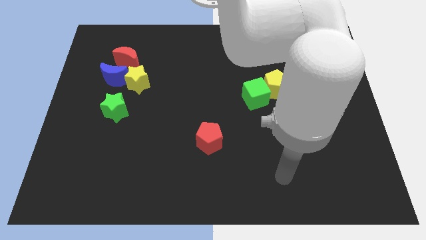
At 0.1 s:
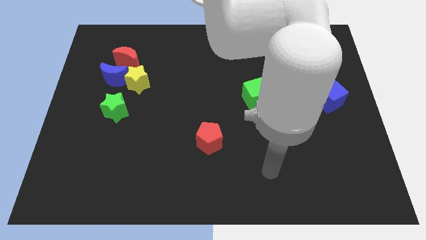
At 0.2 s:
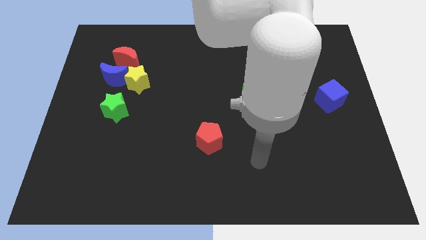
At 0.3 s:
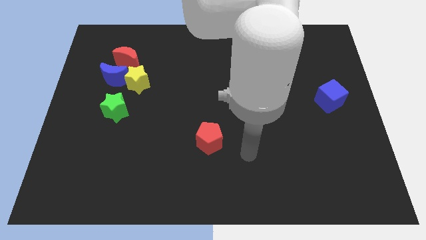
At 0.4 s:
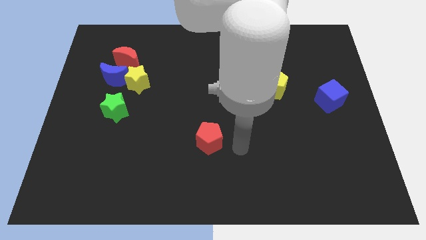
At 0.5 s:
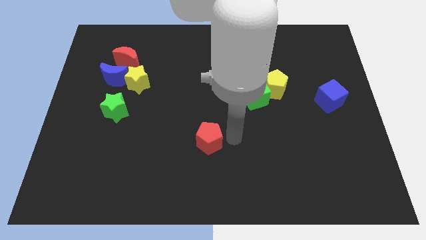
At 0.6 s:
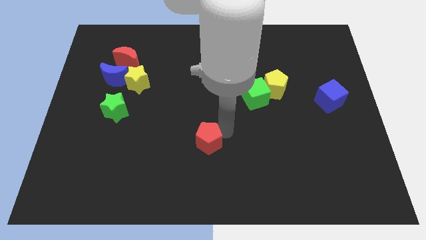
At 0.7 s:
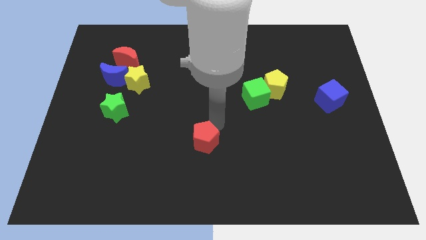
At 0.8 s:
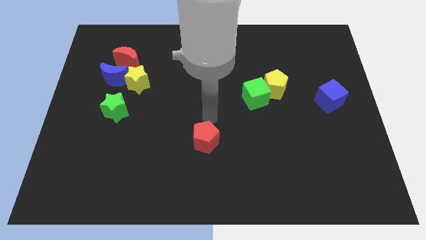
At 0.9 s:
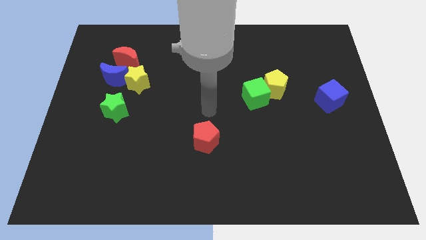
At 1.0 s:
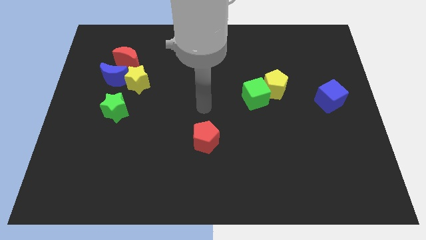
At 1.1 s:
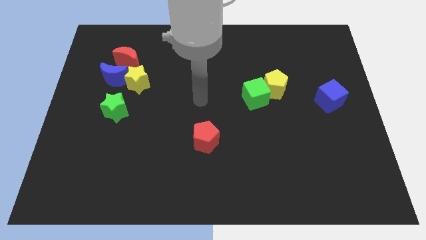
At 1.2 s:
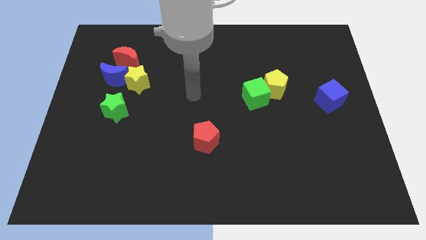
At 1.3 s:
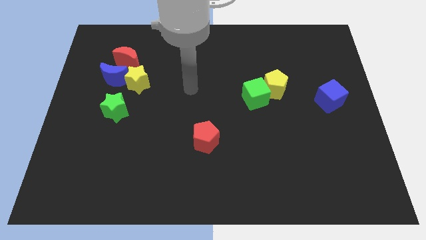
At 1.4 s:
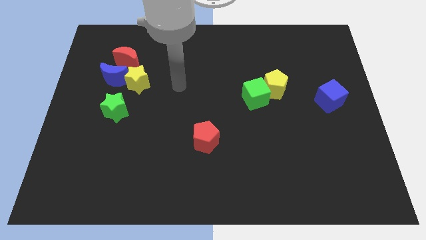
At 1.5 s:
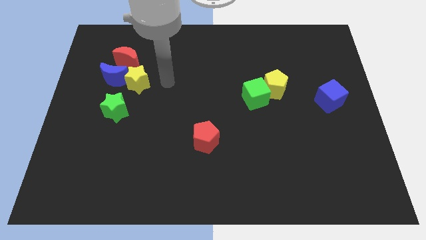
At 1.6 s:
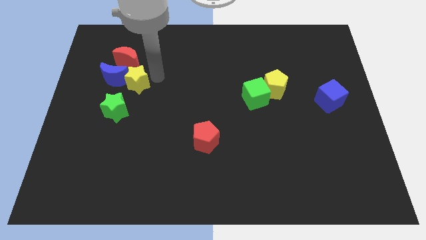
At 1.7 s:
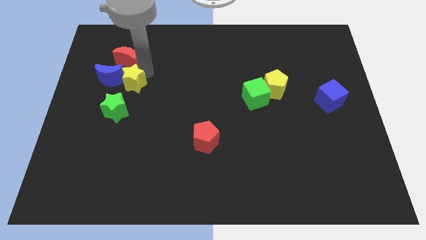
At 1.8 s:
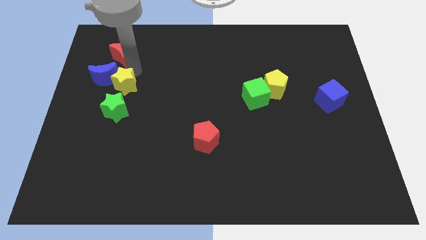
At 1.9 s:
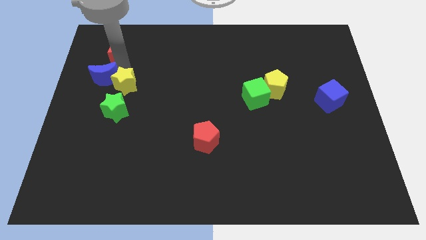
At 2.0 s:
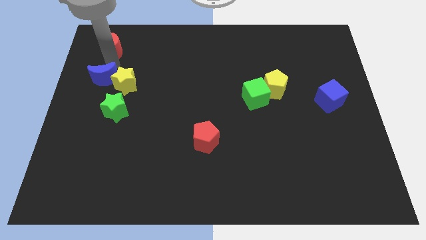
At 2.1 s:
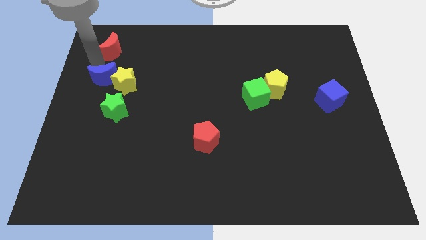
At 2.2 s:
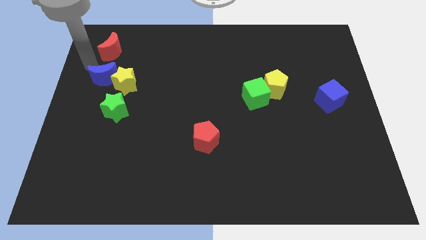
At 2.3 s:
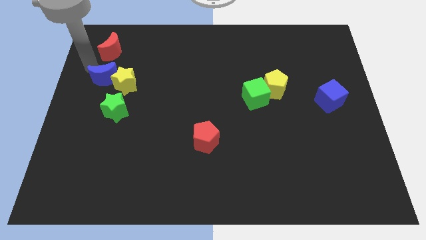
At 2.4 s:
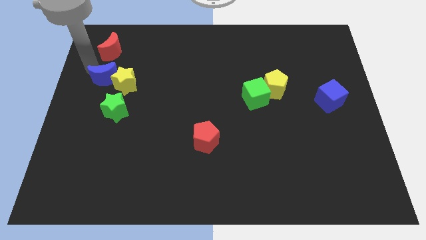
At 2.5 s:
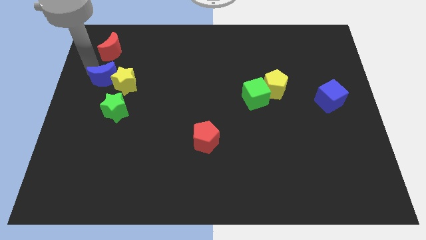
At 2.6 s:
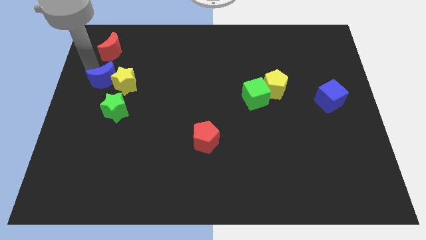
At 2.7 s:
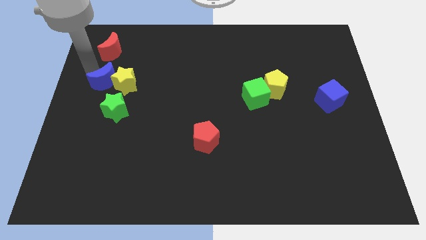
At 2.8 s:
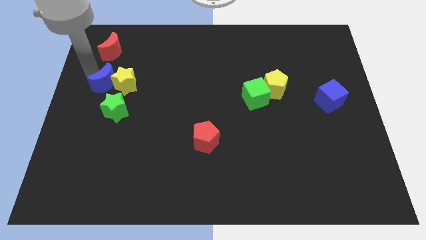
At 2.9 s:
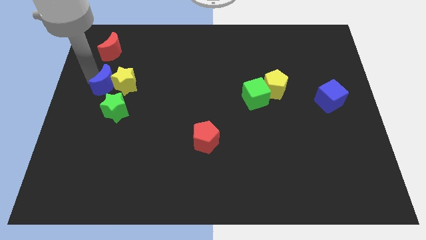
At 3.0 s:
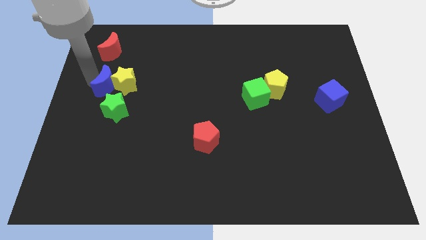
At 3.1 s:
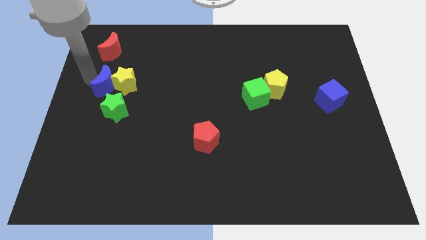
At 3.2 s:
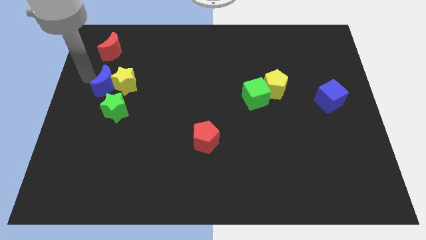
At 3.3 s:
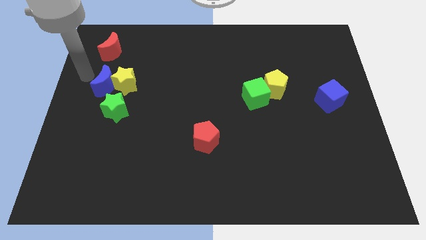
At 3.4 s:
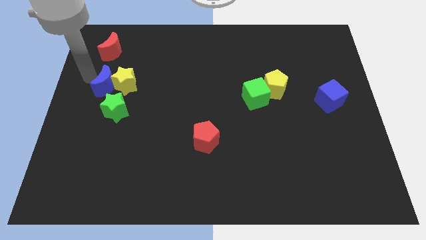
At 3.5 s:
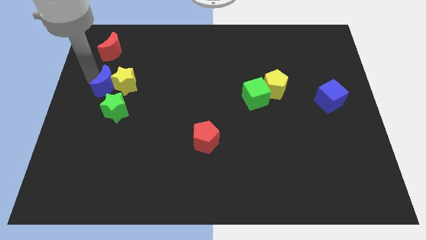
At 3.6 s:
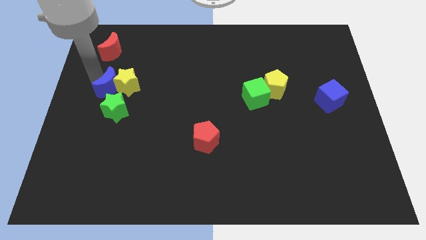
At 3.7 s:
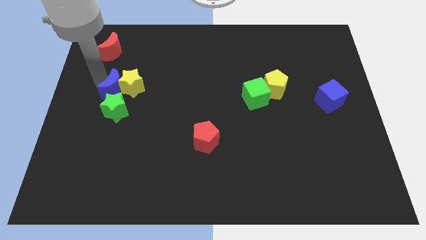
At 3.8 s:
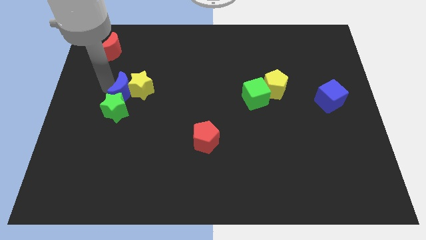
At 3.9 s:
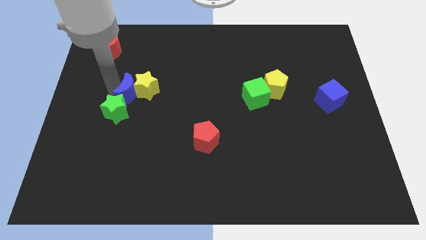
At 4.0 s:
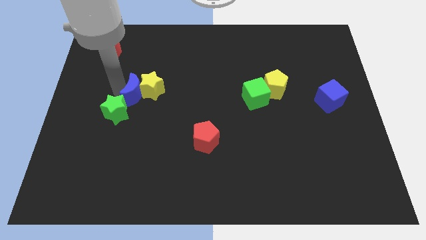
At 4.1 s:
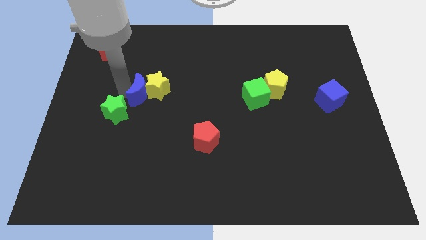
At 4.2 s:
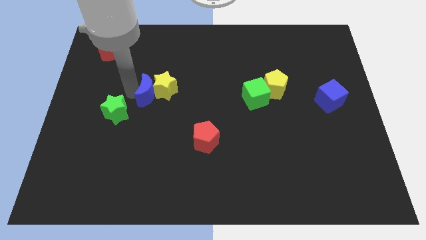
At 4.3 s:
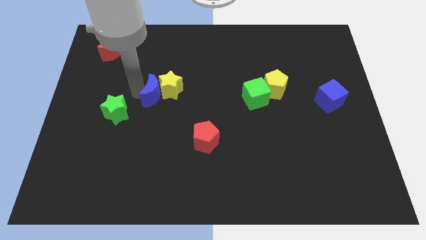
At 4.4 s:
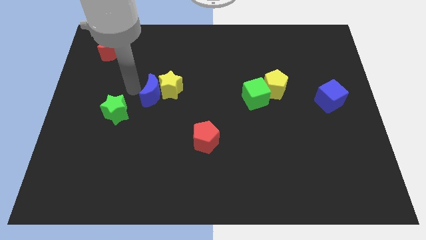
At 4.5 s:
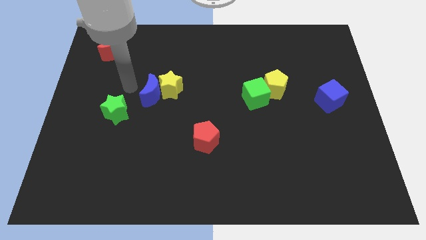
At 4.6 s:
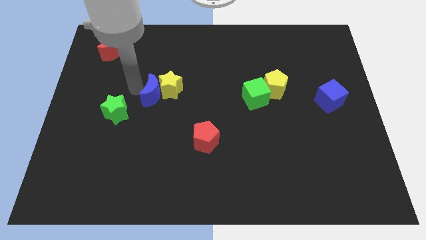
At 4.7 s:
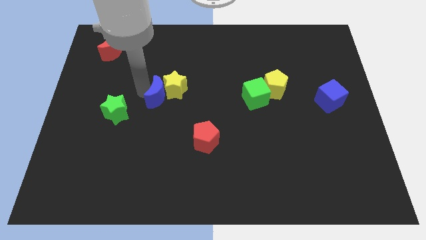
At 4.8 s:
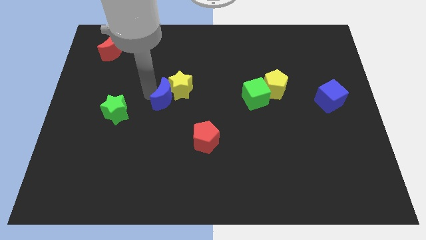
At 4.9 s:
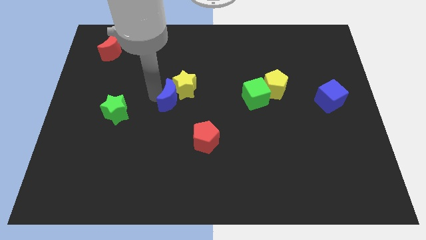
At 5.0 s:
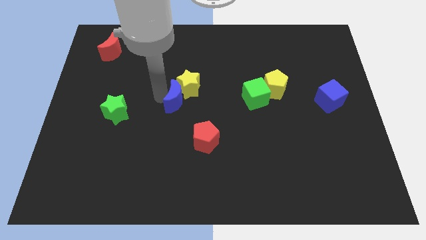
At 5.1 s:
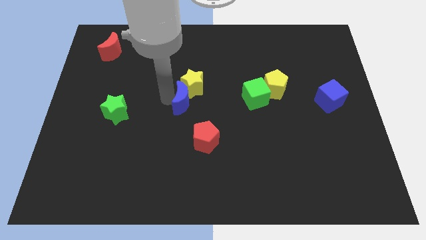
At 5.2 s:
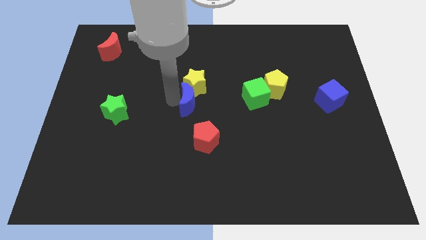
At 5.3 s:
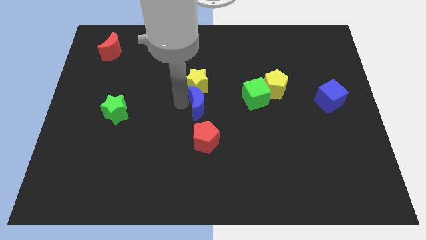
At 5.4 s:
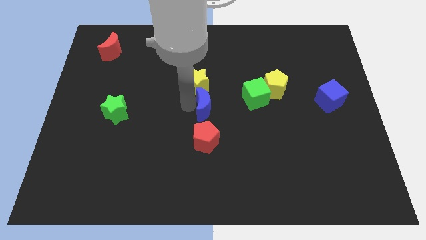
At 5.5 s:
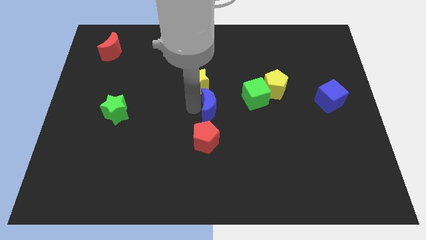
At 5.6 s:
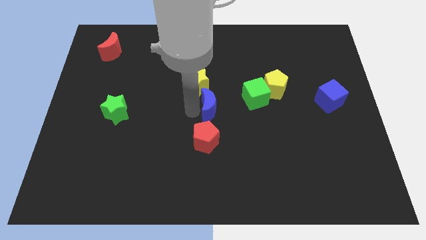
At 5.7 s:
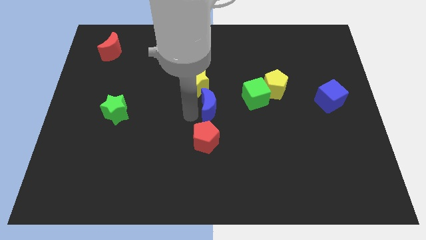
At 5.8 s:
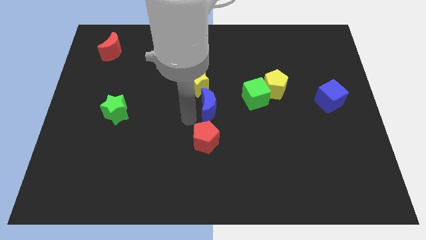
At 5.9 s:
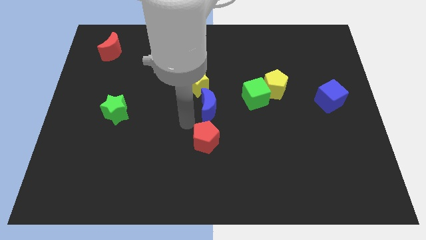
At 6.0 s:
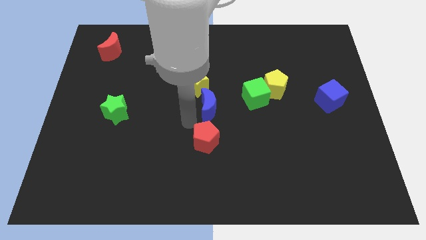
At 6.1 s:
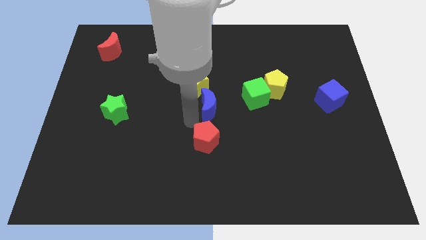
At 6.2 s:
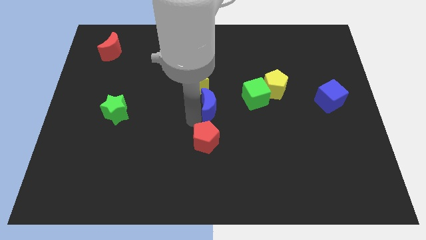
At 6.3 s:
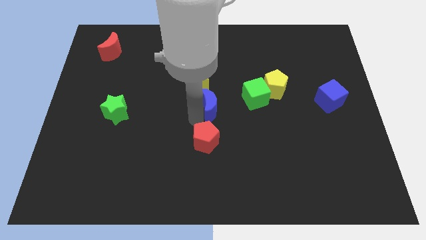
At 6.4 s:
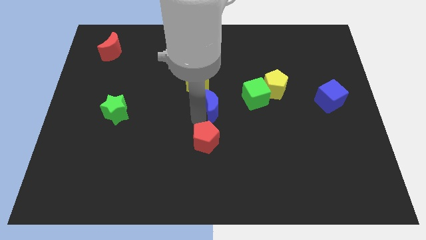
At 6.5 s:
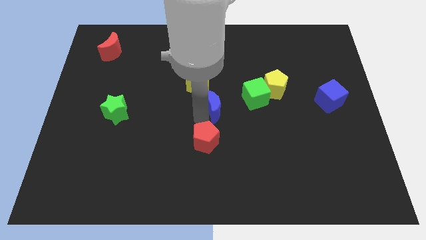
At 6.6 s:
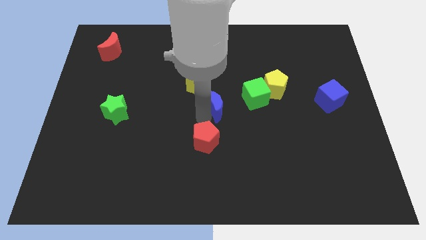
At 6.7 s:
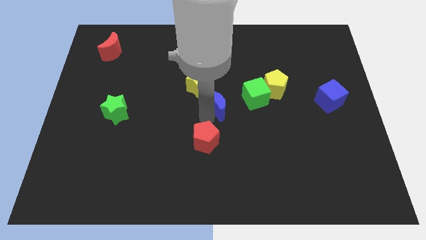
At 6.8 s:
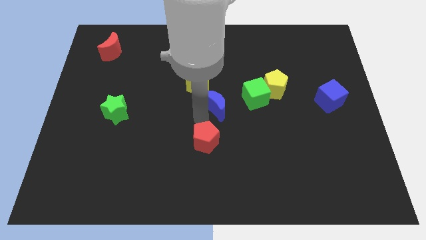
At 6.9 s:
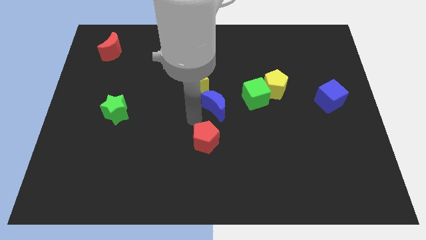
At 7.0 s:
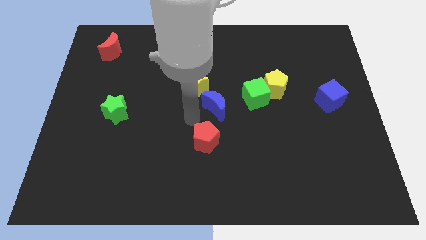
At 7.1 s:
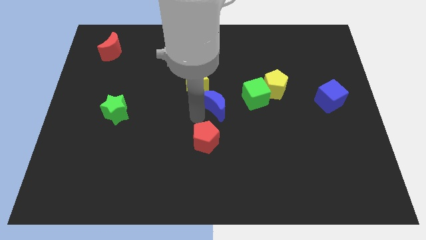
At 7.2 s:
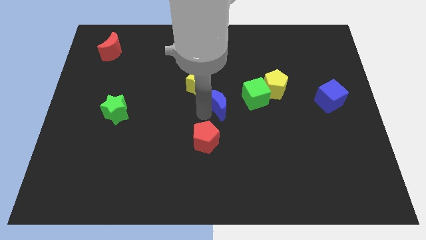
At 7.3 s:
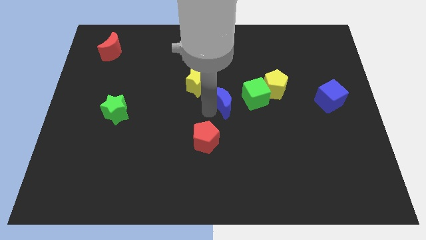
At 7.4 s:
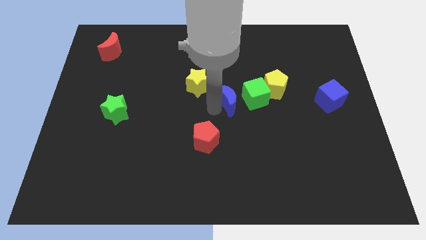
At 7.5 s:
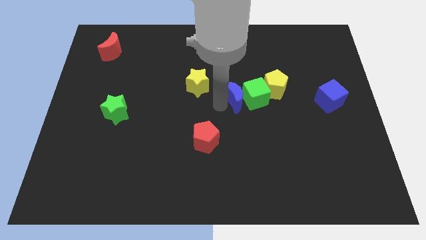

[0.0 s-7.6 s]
push the blue moon to the green cube

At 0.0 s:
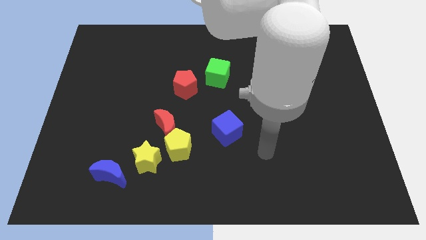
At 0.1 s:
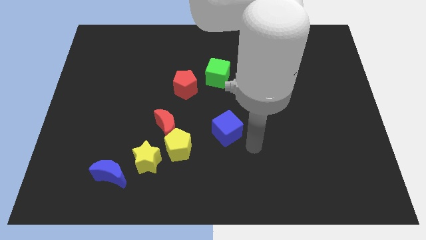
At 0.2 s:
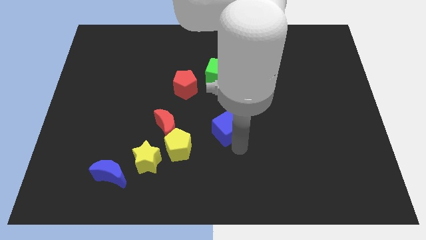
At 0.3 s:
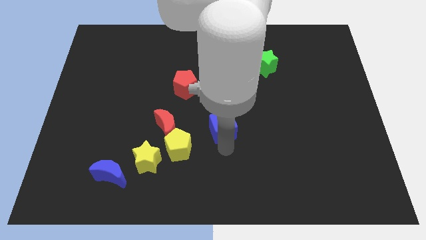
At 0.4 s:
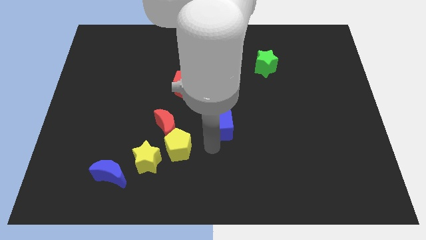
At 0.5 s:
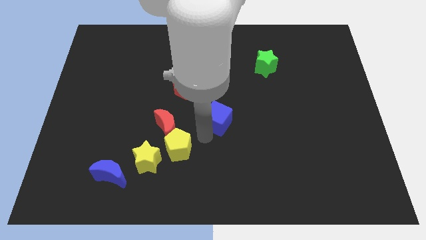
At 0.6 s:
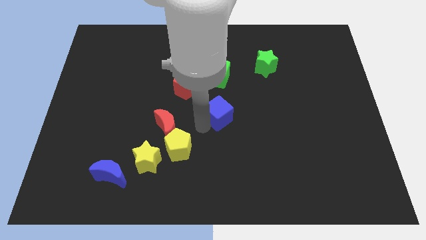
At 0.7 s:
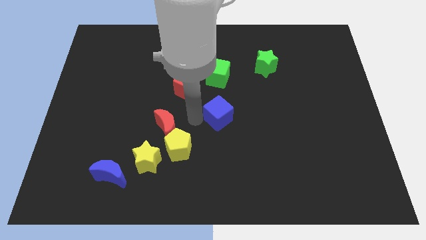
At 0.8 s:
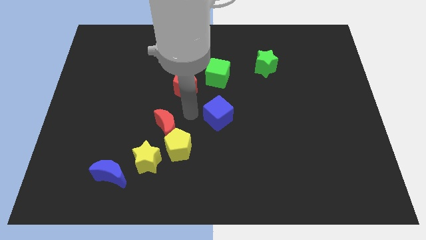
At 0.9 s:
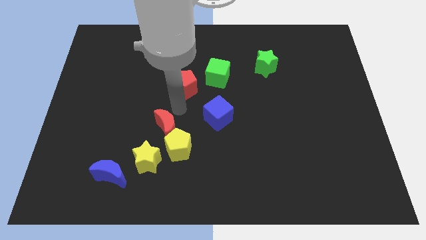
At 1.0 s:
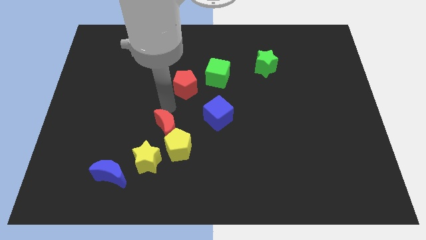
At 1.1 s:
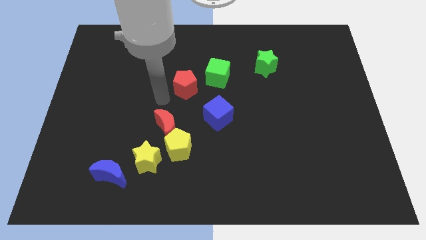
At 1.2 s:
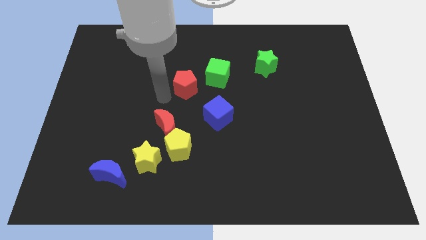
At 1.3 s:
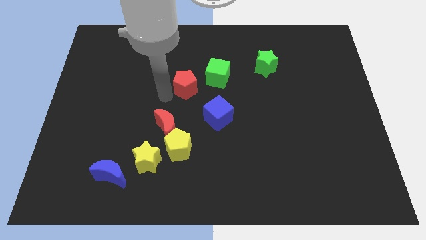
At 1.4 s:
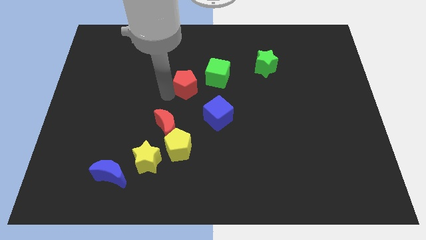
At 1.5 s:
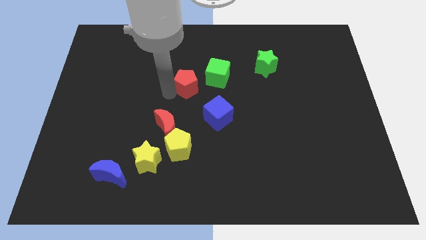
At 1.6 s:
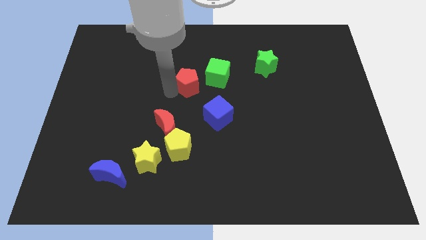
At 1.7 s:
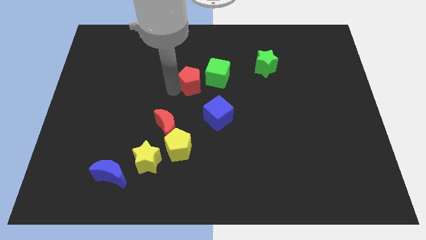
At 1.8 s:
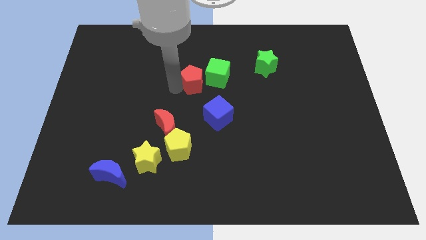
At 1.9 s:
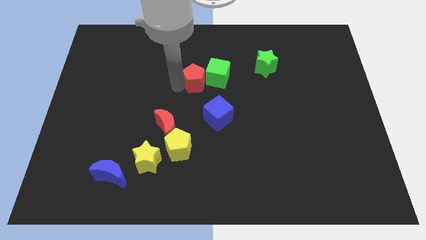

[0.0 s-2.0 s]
slide the red pentagon close to the green cube
